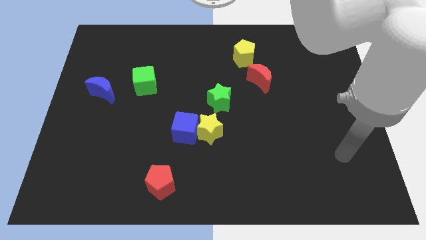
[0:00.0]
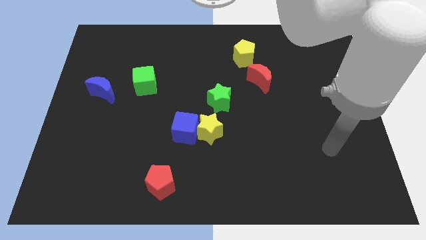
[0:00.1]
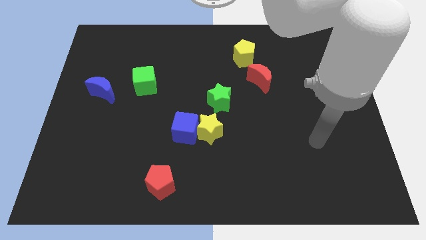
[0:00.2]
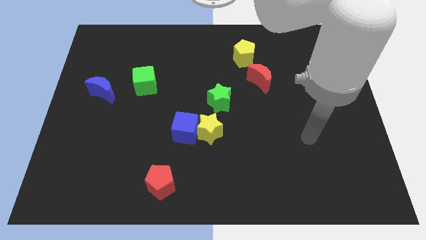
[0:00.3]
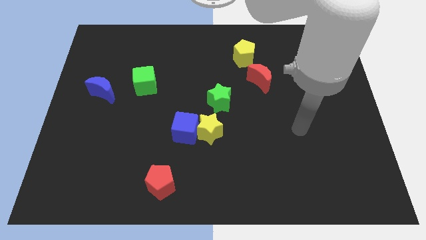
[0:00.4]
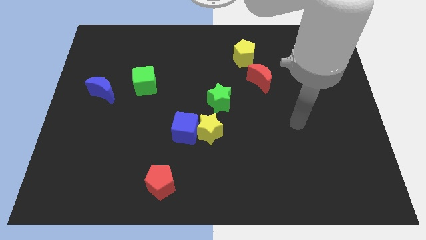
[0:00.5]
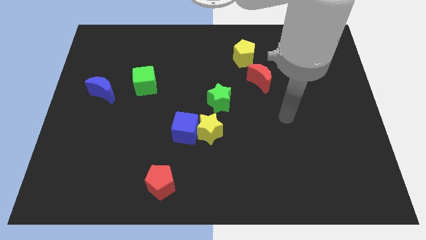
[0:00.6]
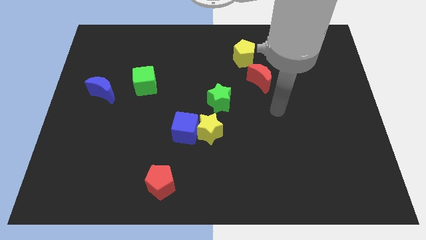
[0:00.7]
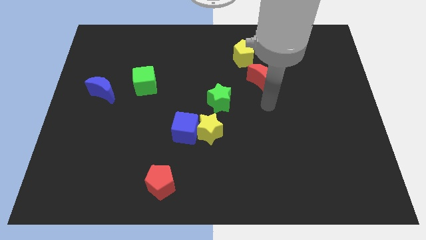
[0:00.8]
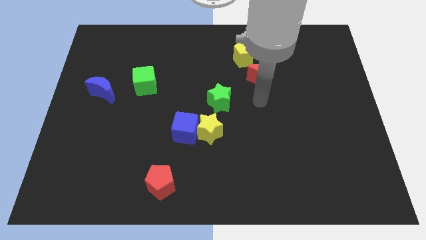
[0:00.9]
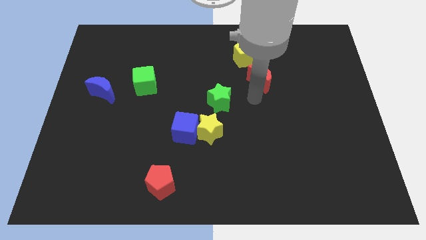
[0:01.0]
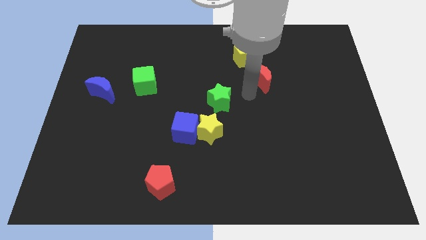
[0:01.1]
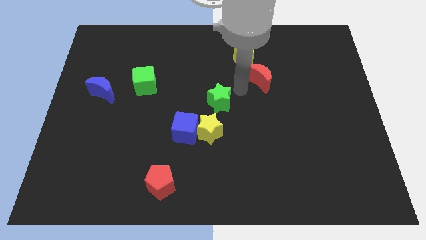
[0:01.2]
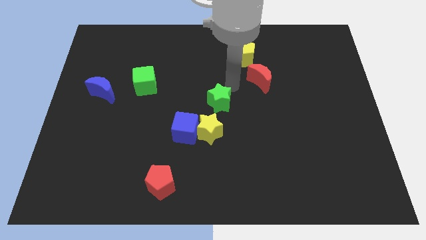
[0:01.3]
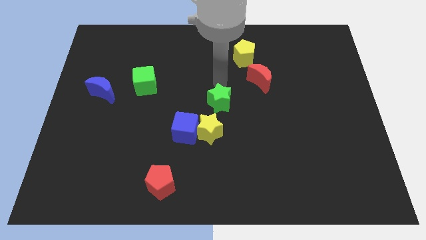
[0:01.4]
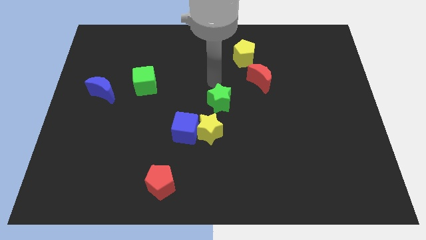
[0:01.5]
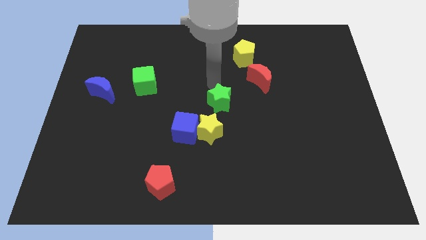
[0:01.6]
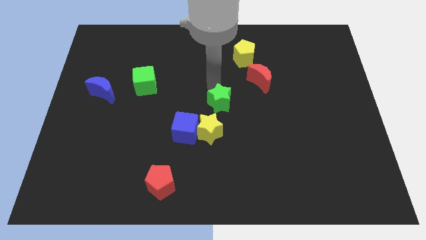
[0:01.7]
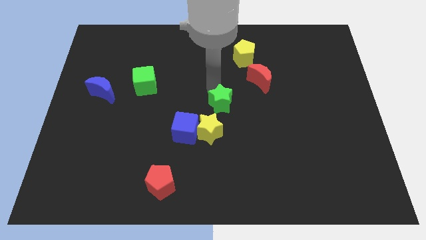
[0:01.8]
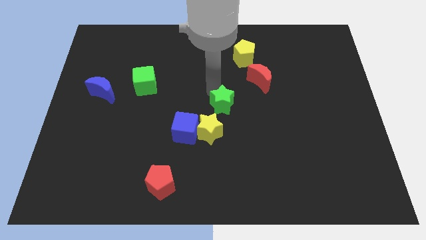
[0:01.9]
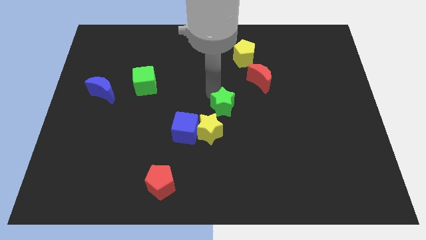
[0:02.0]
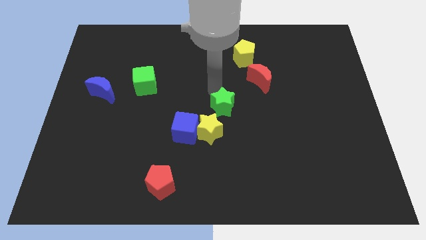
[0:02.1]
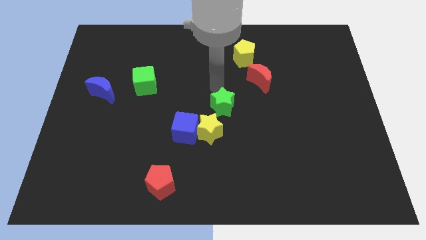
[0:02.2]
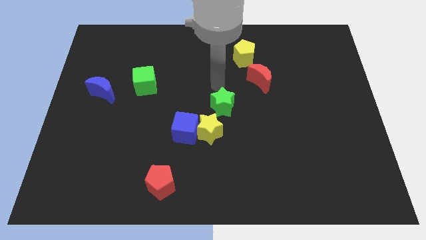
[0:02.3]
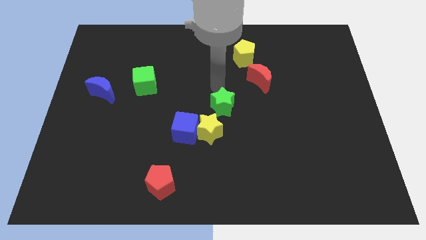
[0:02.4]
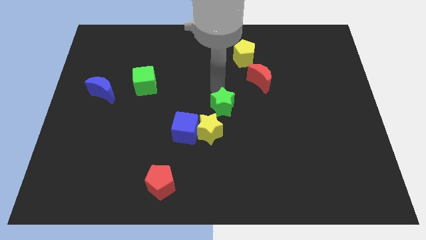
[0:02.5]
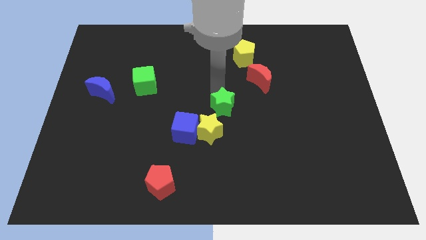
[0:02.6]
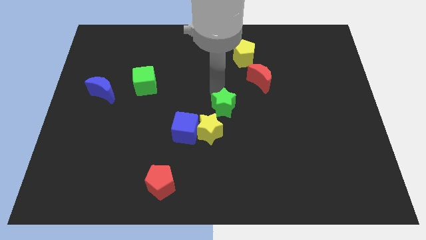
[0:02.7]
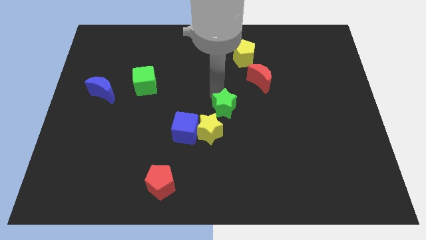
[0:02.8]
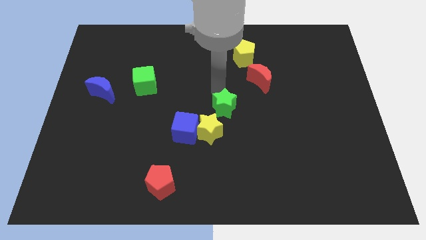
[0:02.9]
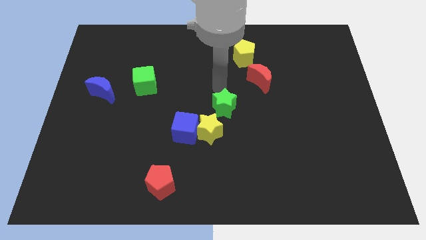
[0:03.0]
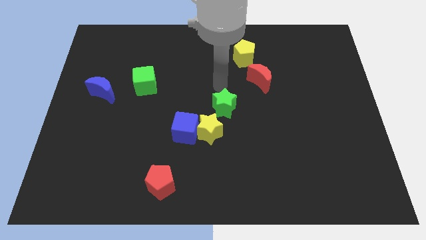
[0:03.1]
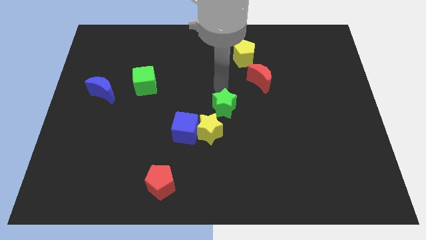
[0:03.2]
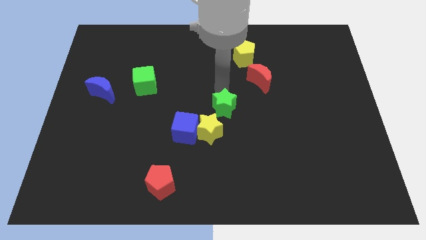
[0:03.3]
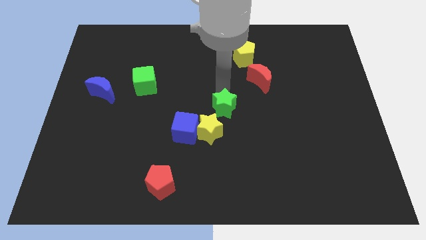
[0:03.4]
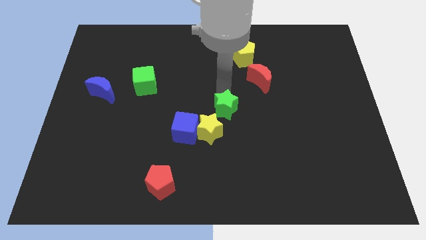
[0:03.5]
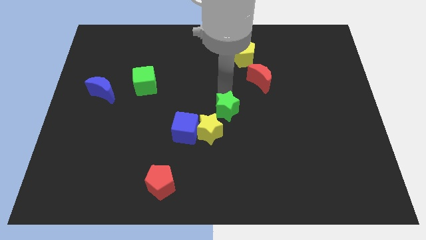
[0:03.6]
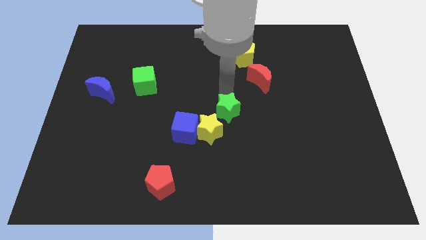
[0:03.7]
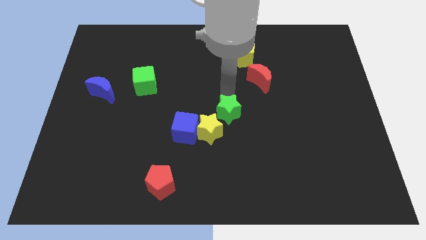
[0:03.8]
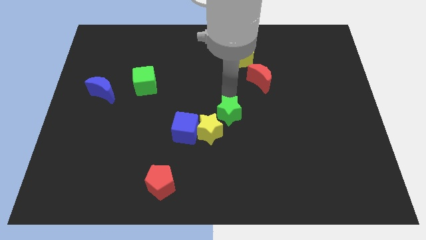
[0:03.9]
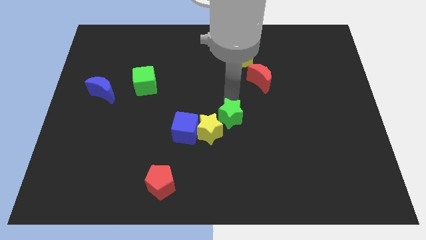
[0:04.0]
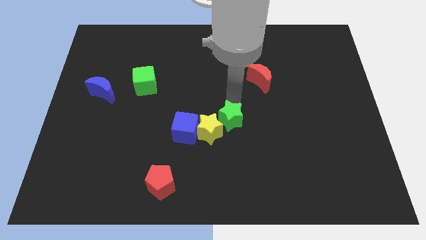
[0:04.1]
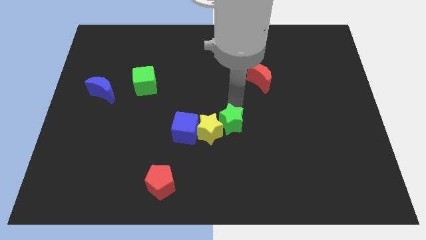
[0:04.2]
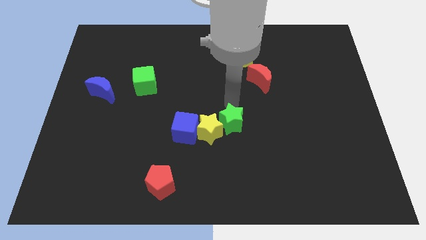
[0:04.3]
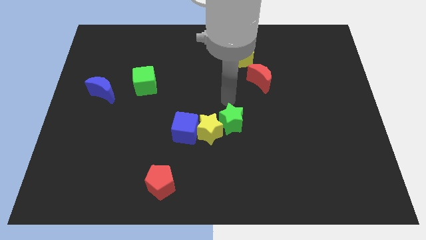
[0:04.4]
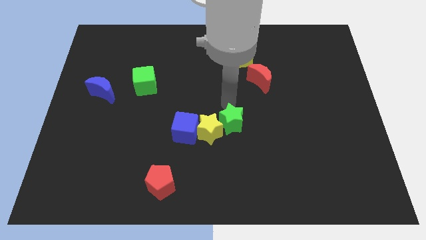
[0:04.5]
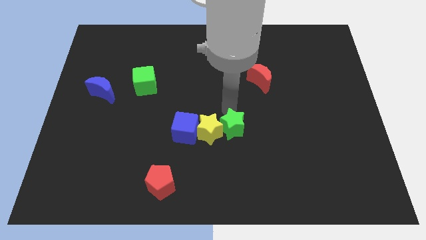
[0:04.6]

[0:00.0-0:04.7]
move the green star to the bottom right of the yellow star

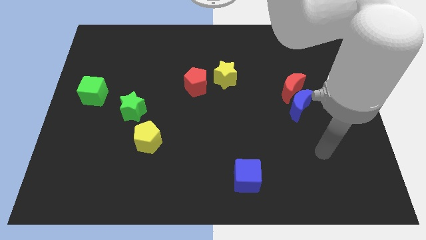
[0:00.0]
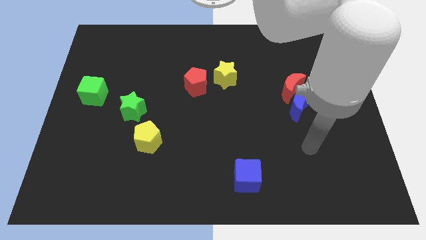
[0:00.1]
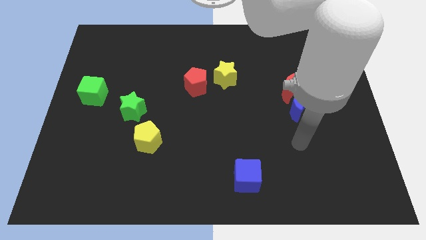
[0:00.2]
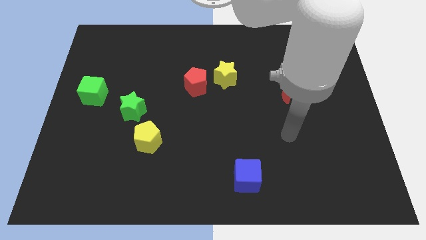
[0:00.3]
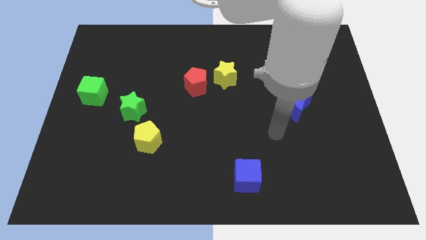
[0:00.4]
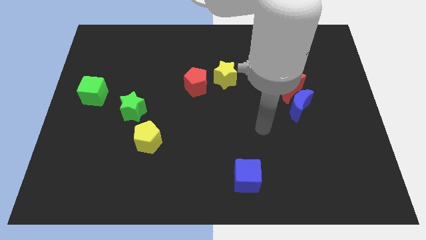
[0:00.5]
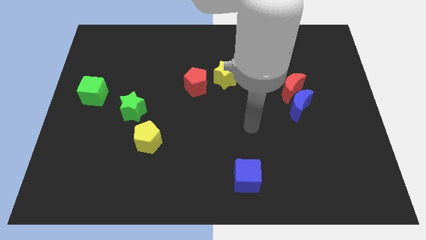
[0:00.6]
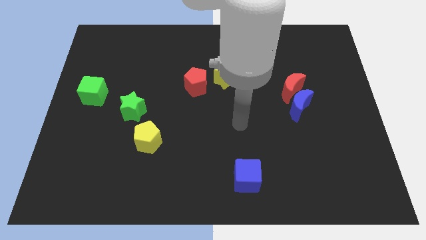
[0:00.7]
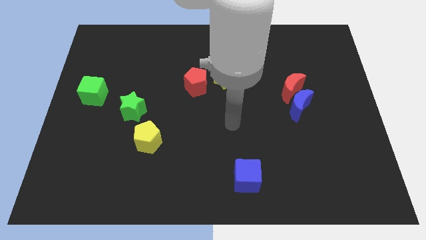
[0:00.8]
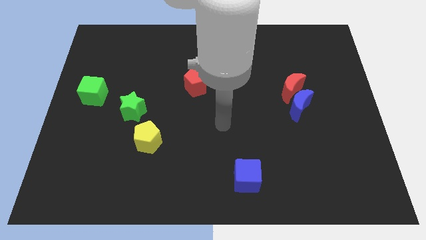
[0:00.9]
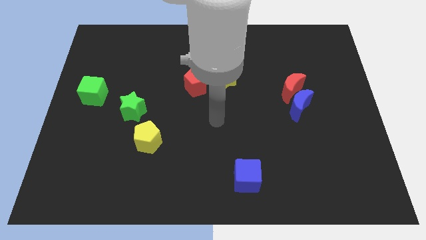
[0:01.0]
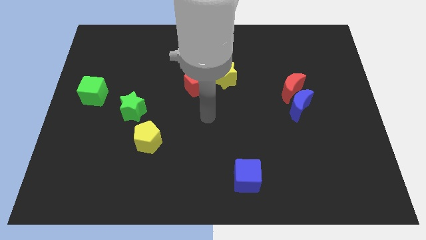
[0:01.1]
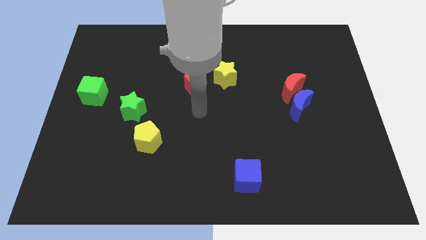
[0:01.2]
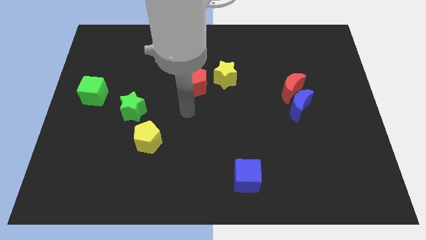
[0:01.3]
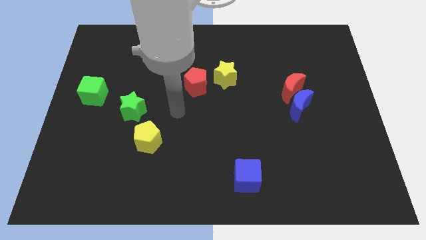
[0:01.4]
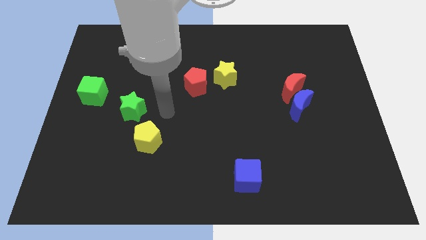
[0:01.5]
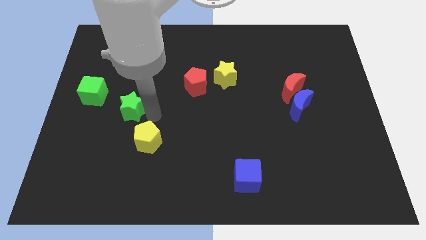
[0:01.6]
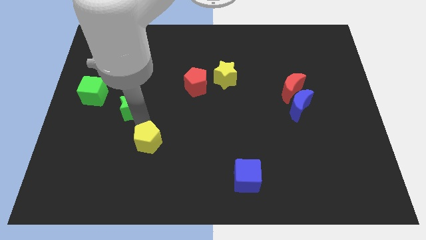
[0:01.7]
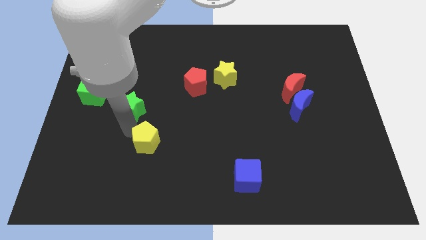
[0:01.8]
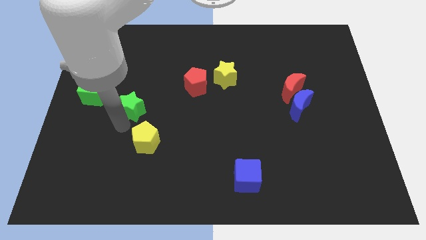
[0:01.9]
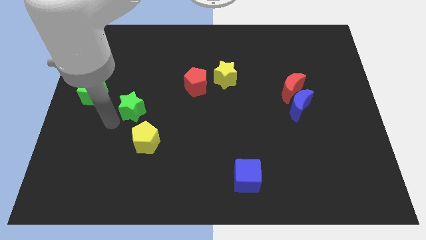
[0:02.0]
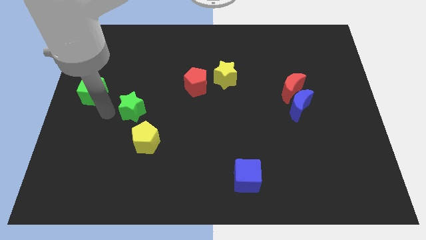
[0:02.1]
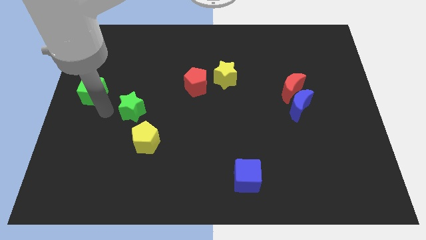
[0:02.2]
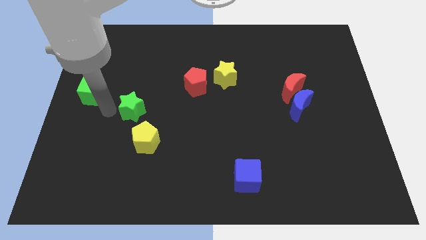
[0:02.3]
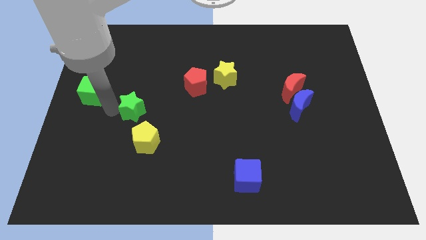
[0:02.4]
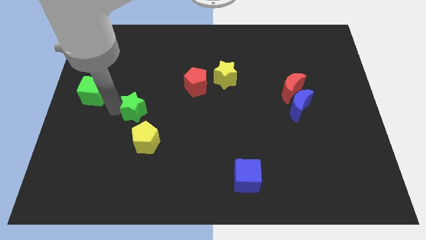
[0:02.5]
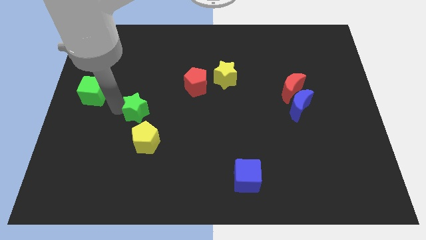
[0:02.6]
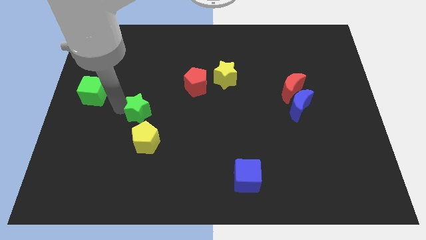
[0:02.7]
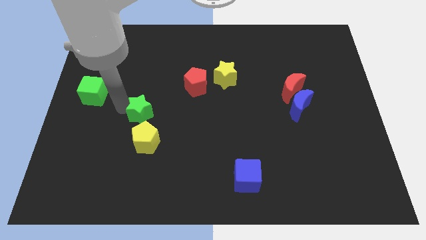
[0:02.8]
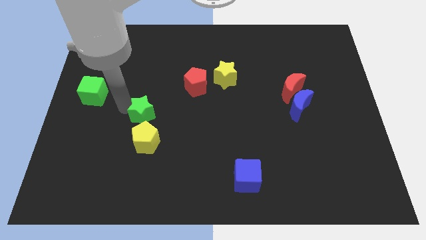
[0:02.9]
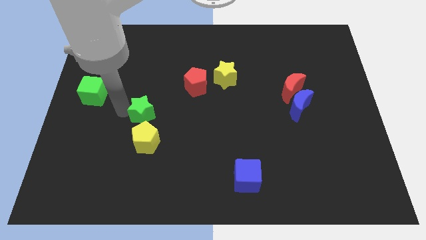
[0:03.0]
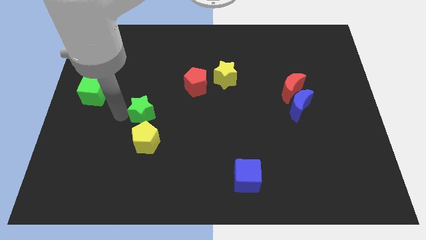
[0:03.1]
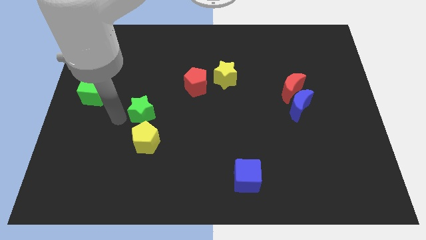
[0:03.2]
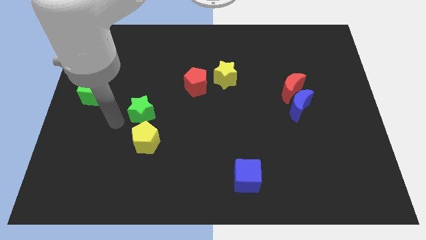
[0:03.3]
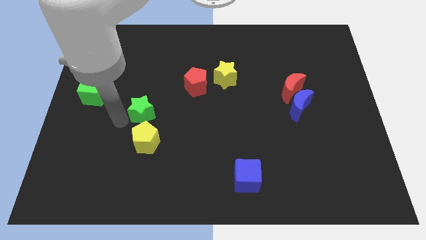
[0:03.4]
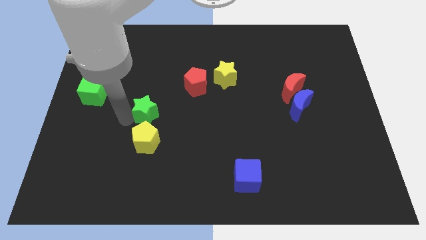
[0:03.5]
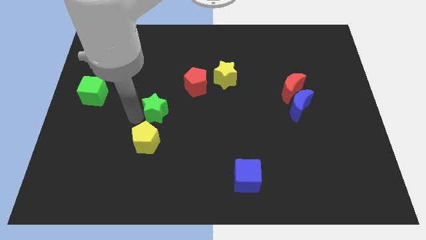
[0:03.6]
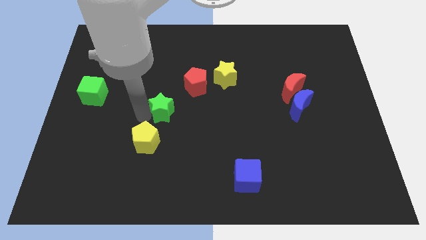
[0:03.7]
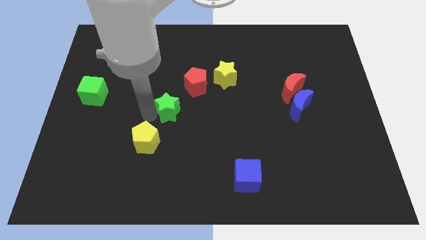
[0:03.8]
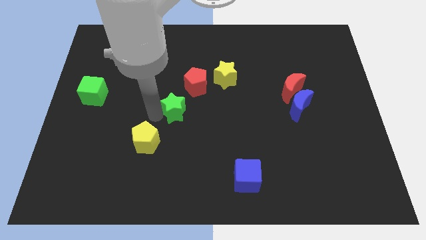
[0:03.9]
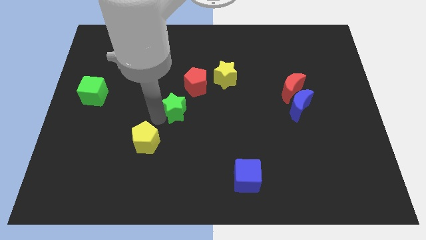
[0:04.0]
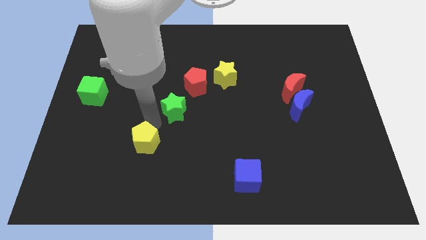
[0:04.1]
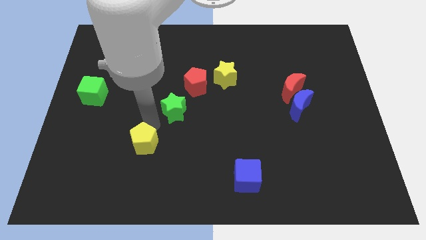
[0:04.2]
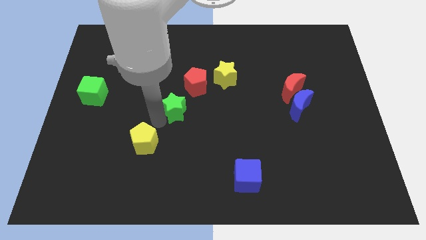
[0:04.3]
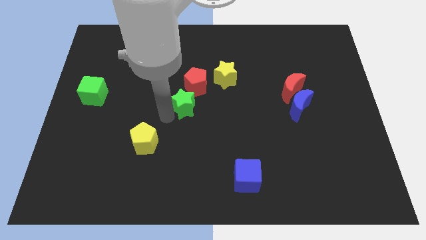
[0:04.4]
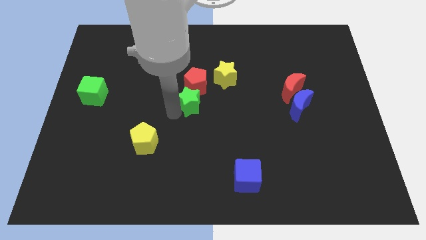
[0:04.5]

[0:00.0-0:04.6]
push the green star to the bottom left side of the yellow star
